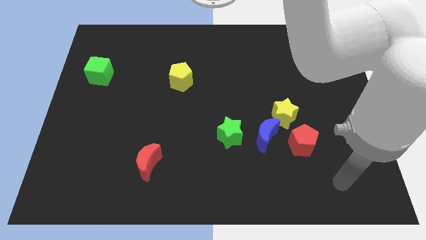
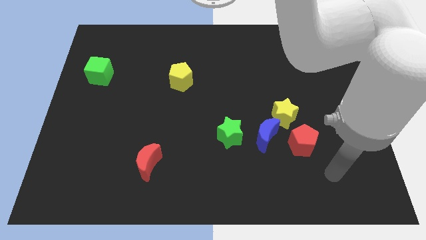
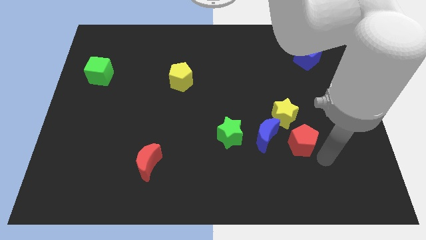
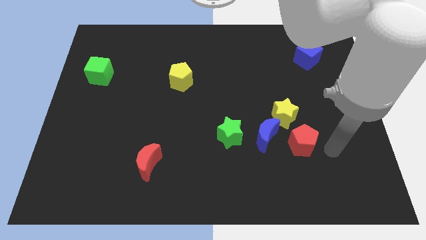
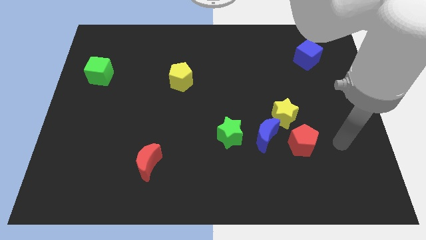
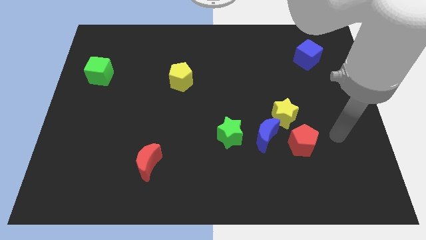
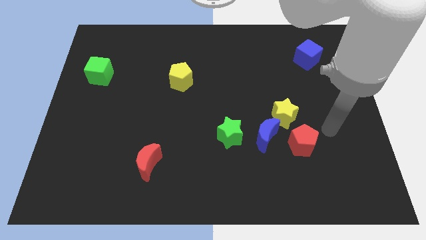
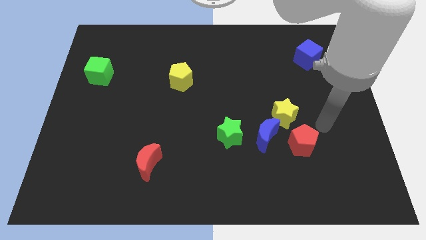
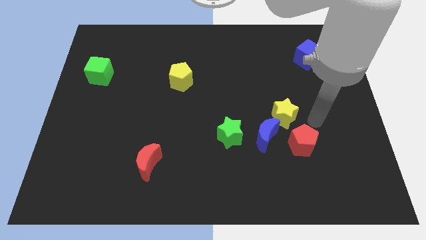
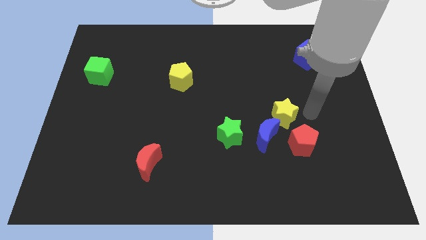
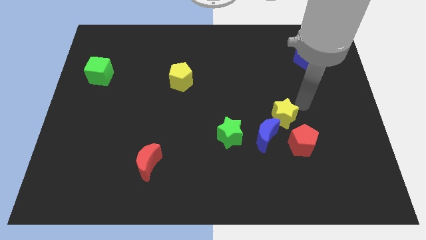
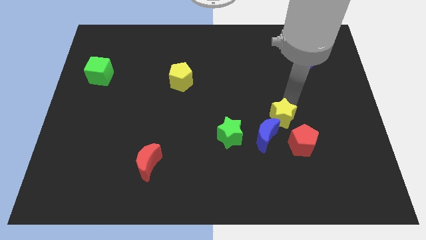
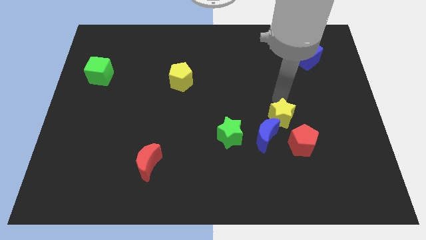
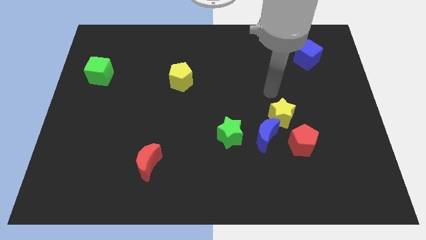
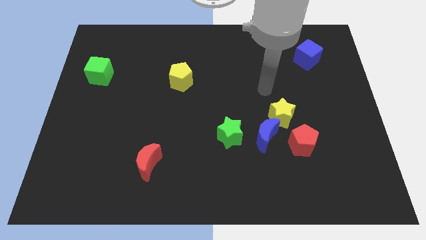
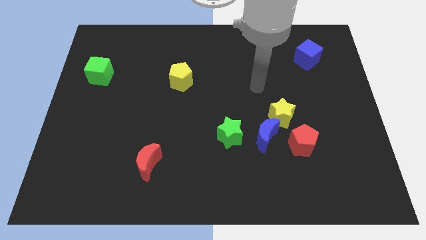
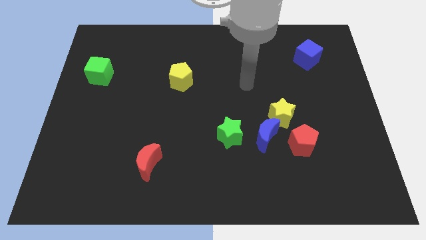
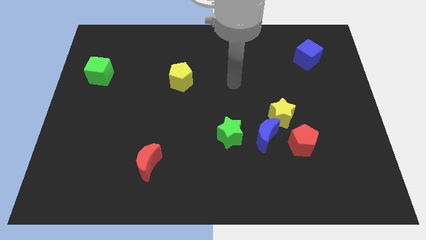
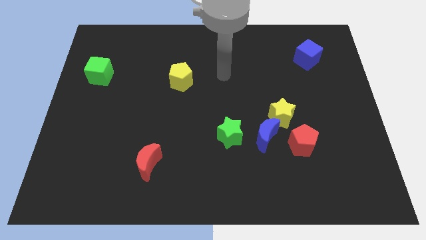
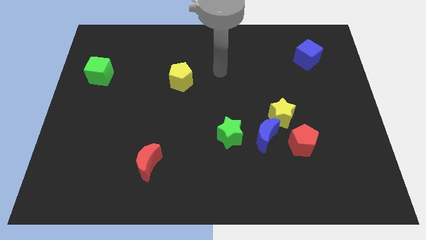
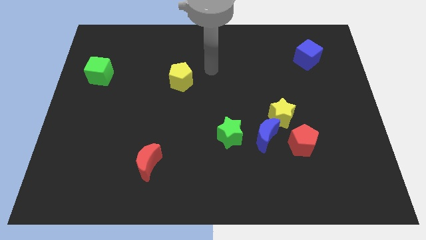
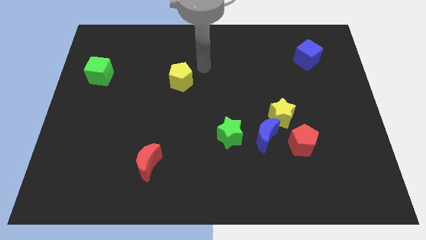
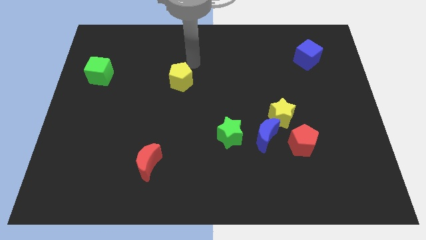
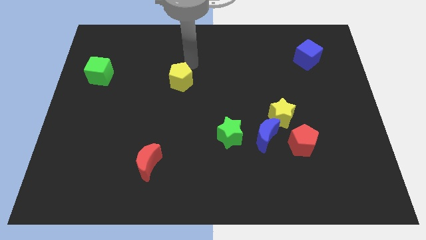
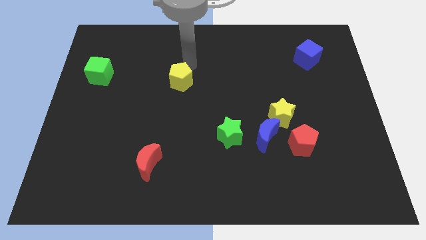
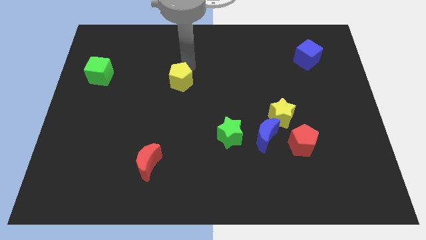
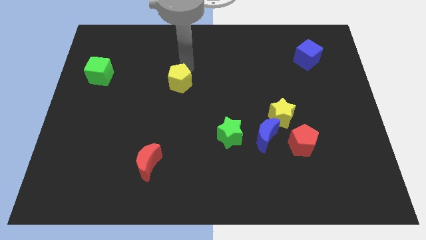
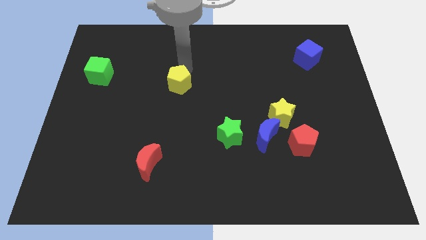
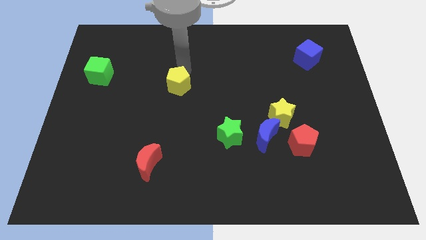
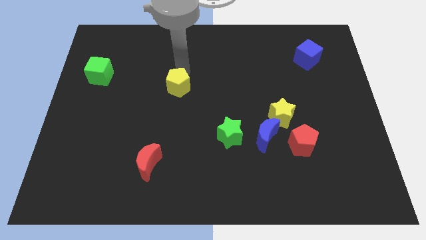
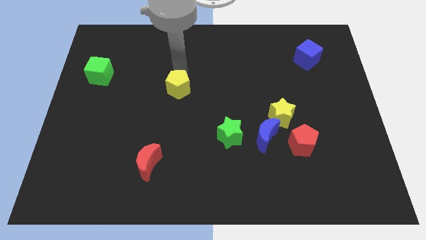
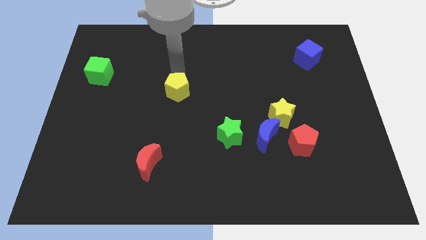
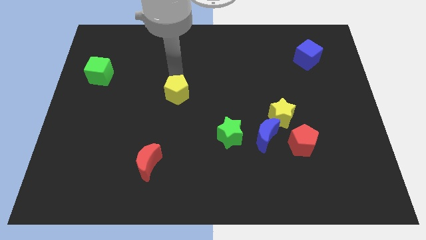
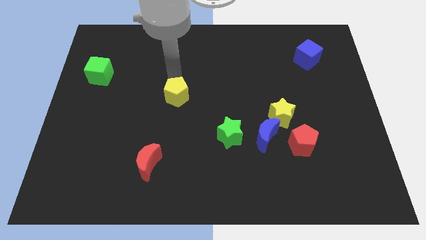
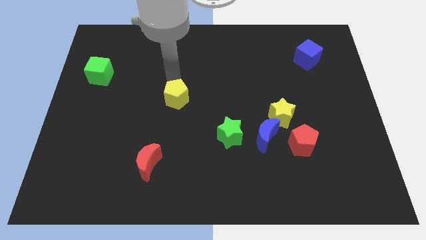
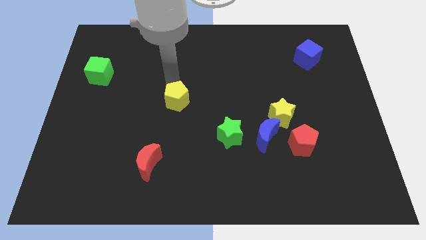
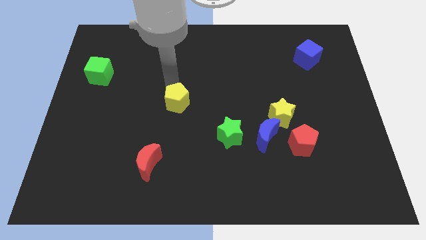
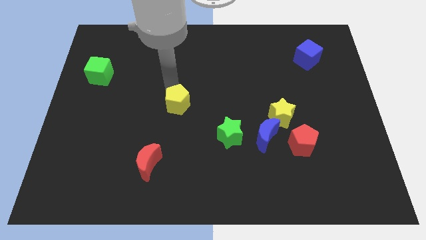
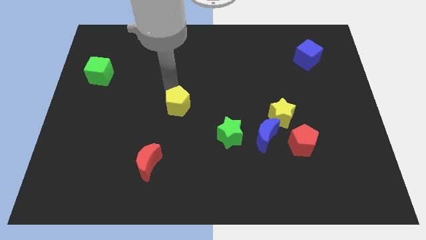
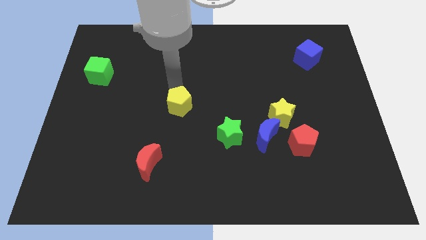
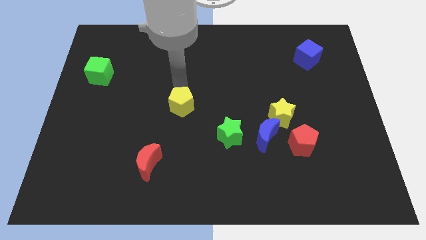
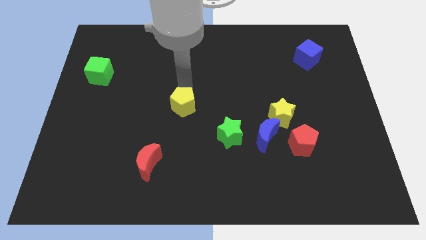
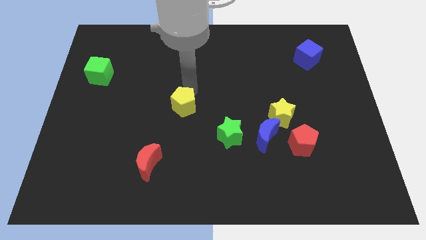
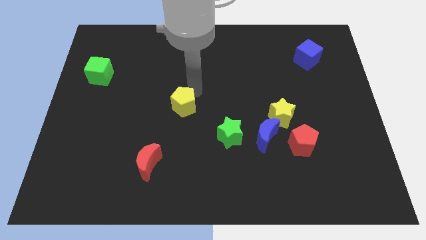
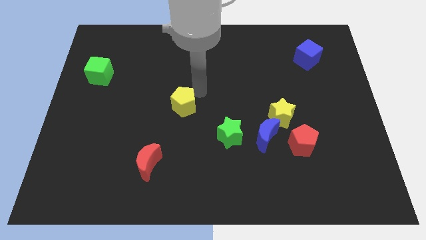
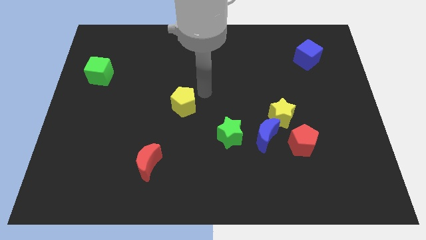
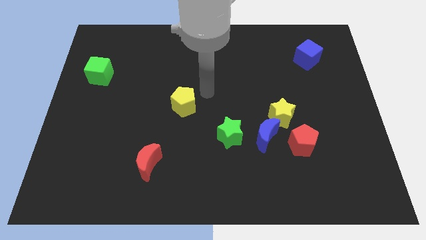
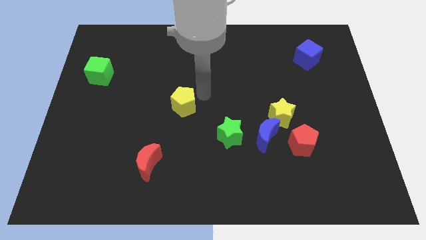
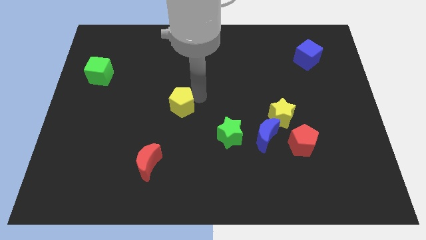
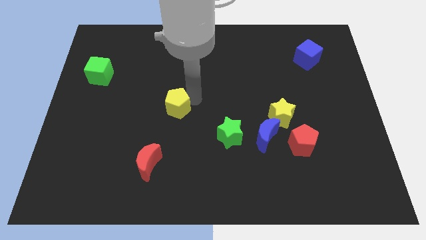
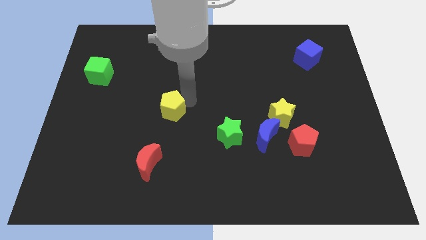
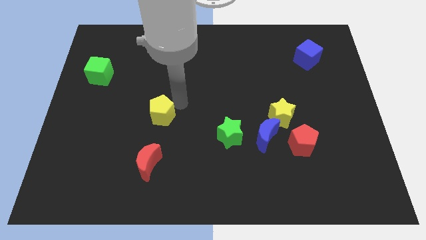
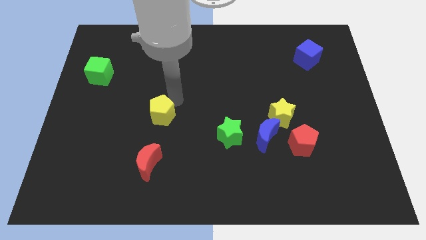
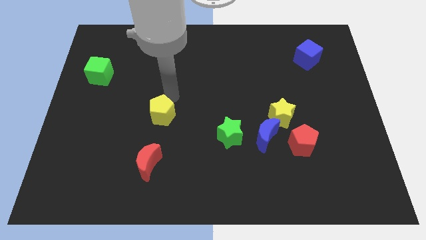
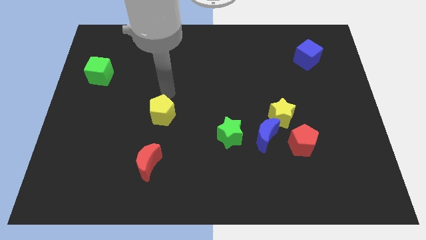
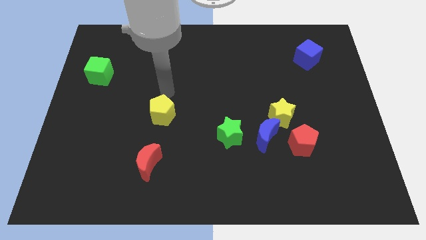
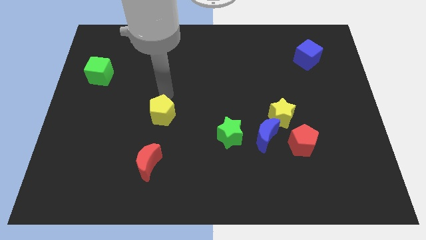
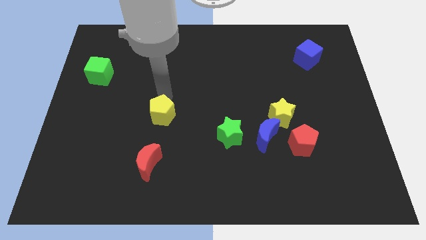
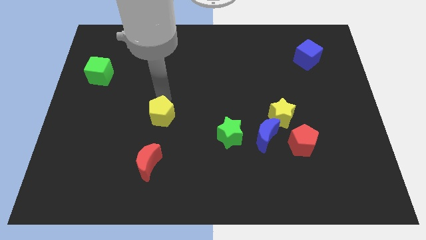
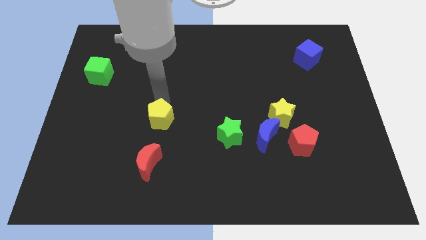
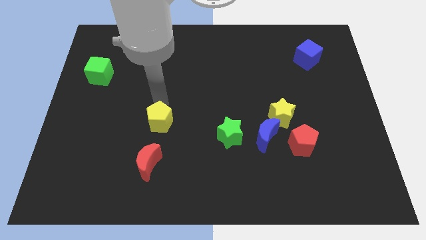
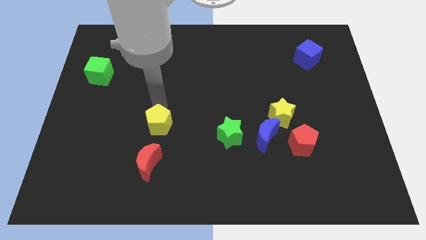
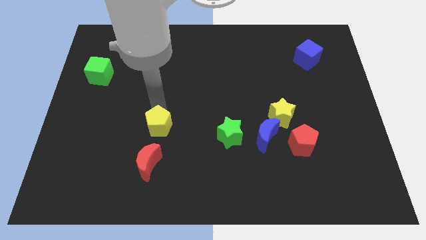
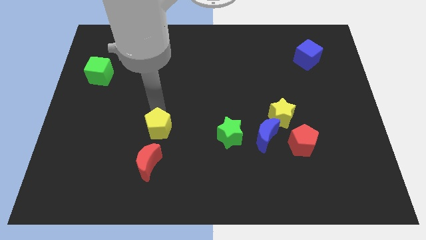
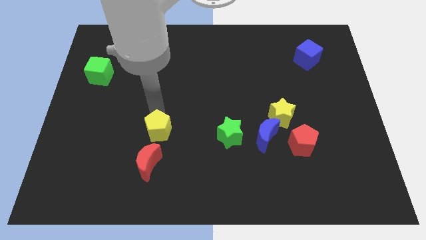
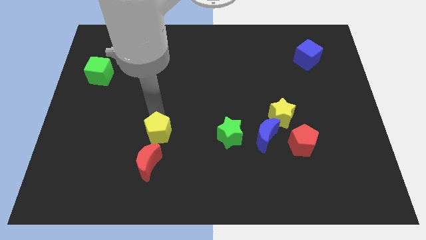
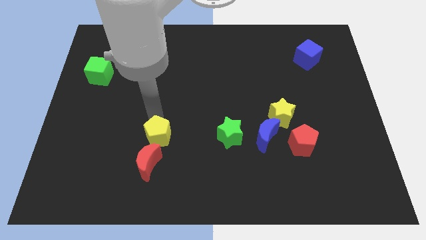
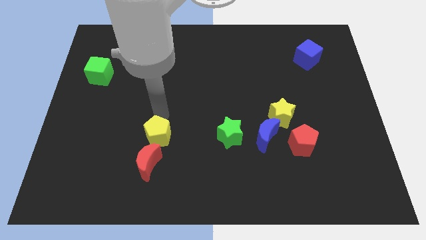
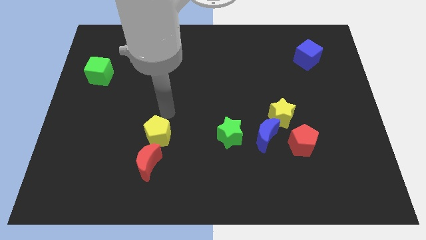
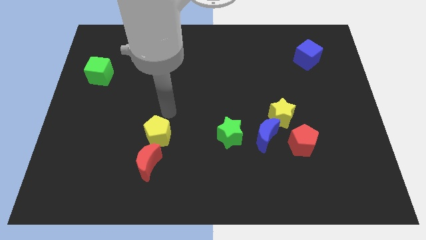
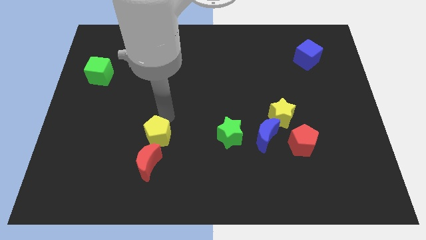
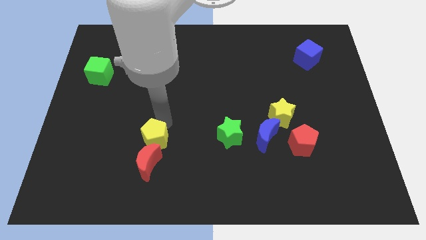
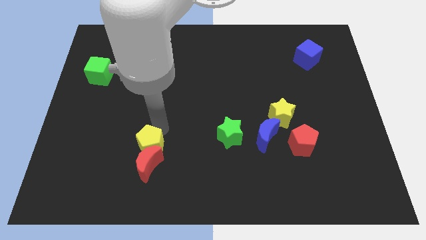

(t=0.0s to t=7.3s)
move the yellow pentagon close to the red moon
